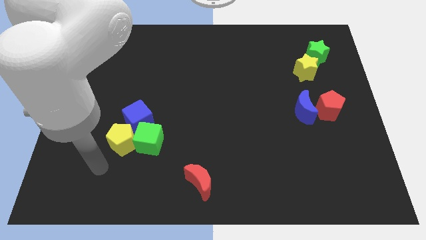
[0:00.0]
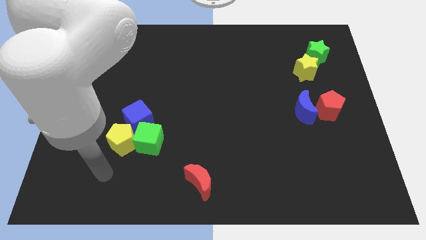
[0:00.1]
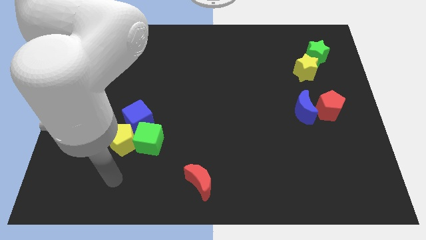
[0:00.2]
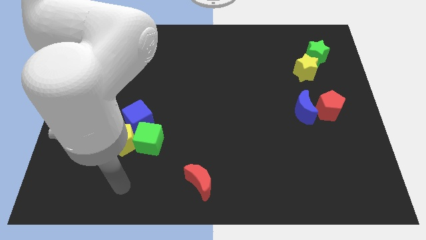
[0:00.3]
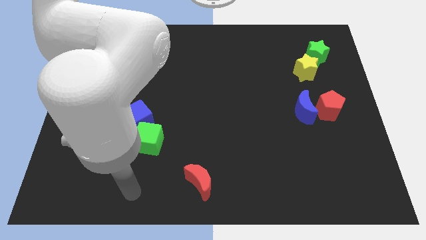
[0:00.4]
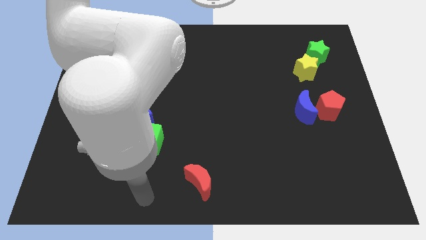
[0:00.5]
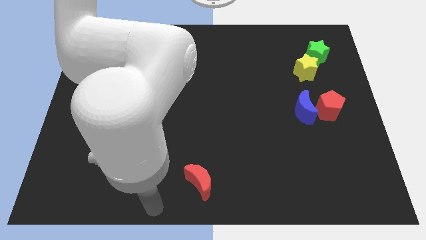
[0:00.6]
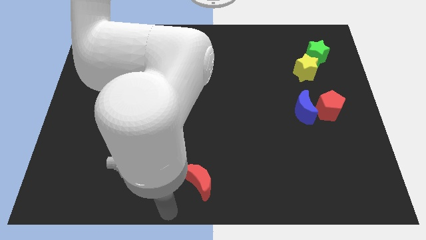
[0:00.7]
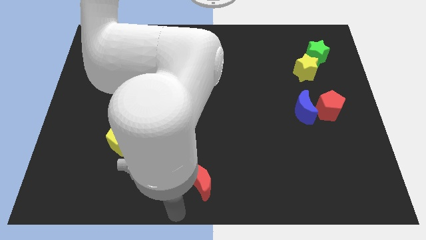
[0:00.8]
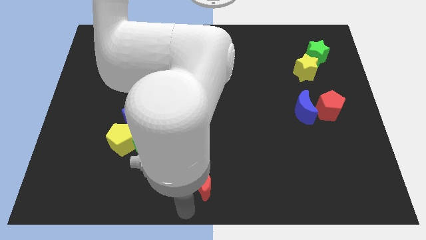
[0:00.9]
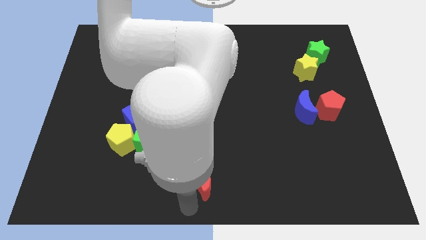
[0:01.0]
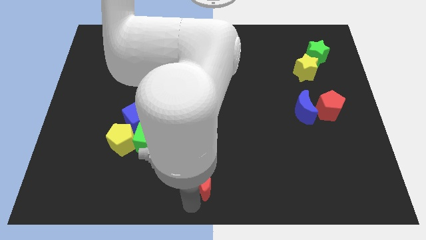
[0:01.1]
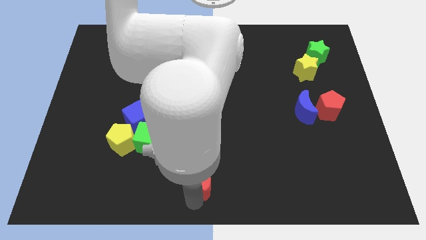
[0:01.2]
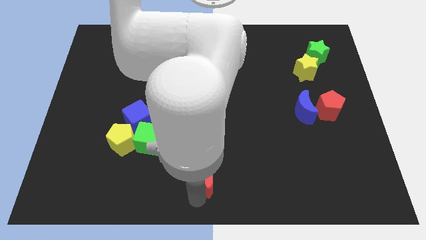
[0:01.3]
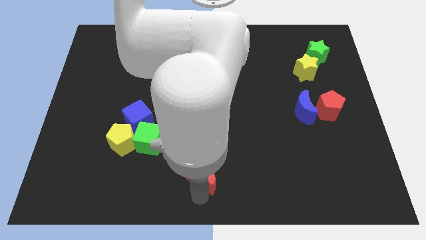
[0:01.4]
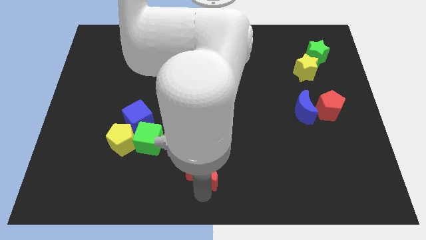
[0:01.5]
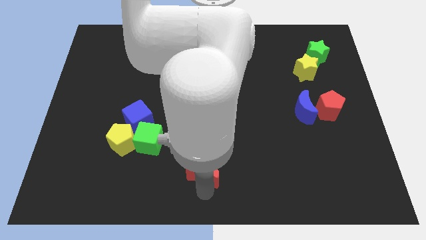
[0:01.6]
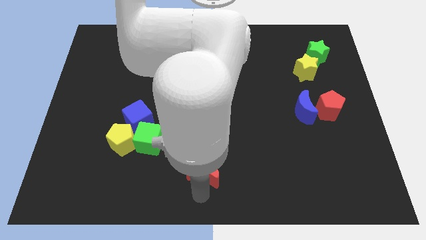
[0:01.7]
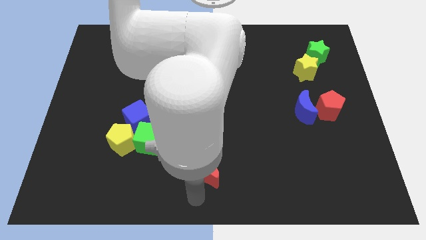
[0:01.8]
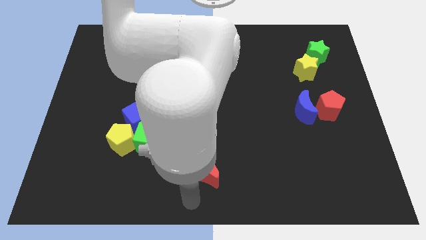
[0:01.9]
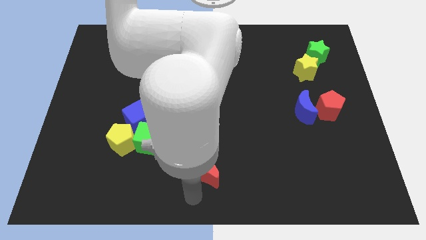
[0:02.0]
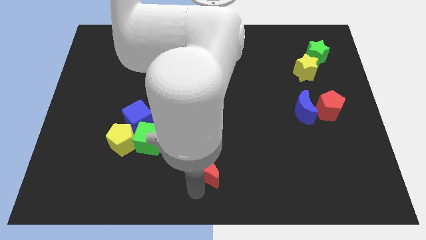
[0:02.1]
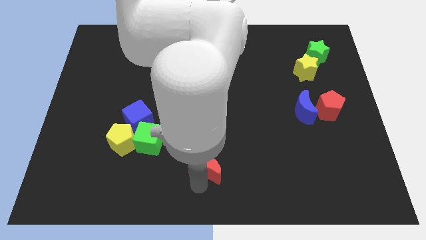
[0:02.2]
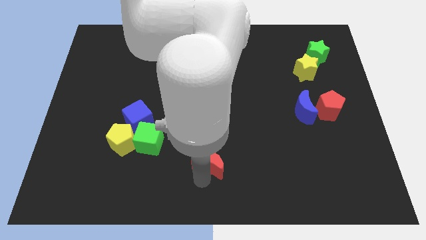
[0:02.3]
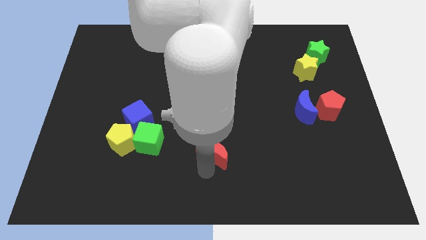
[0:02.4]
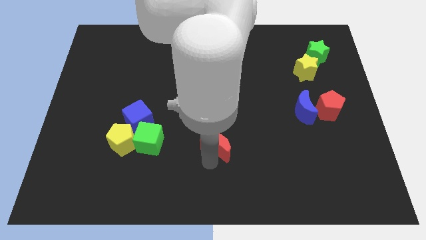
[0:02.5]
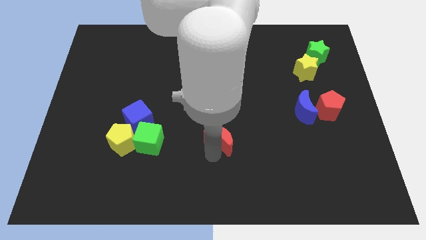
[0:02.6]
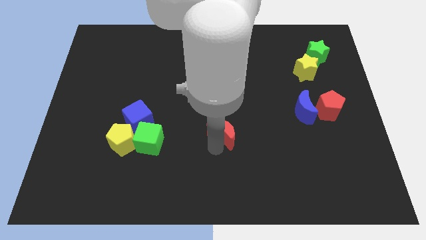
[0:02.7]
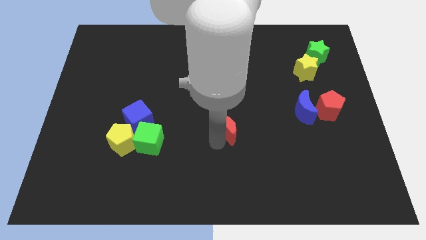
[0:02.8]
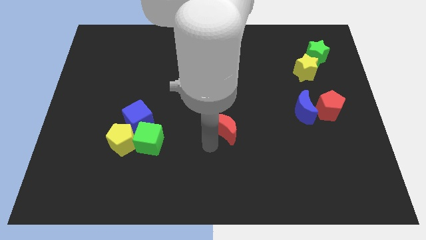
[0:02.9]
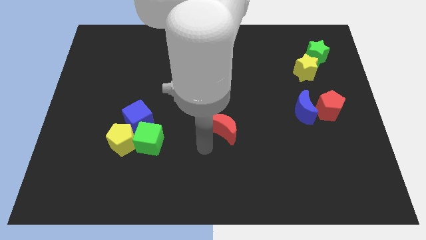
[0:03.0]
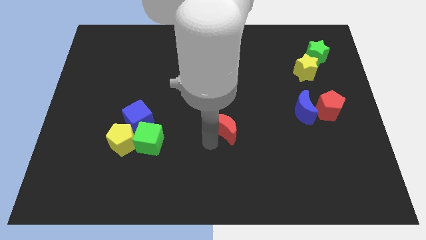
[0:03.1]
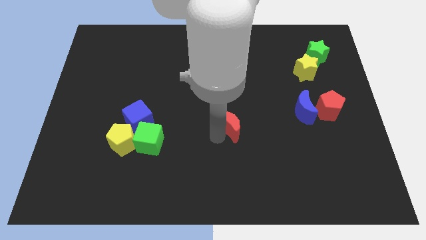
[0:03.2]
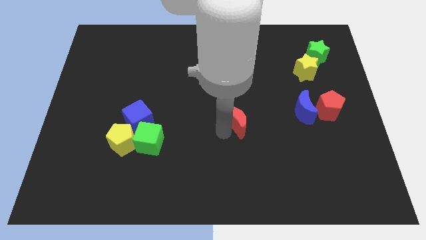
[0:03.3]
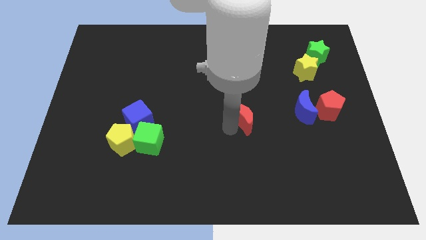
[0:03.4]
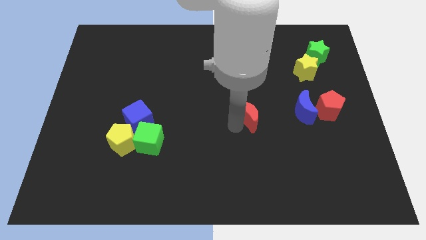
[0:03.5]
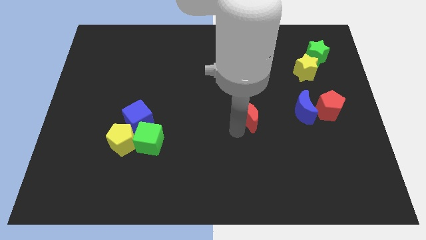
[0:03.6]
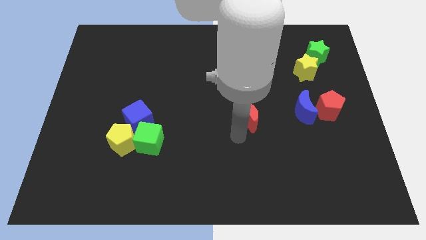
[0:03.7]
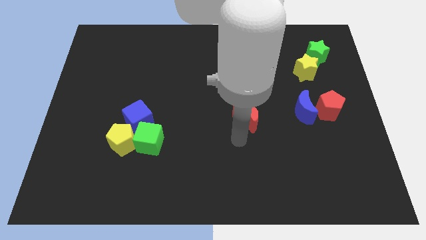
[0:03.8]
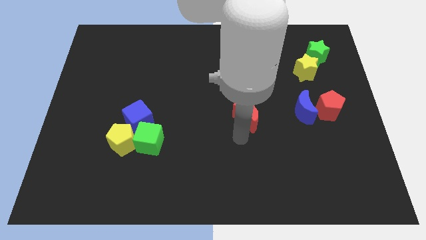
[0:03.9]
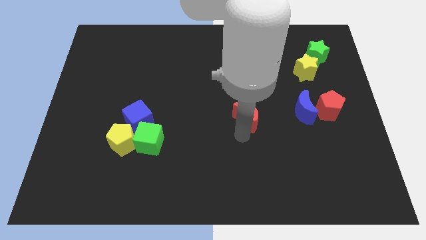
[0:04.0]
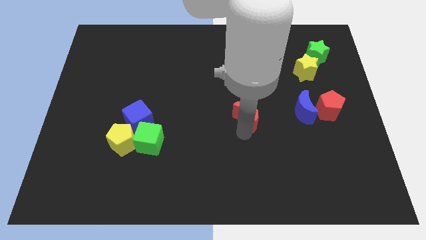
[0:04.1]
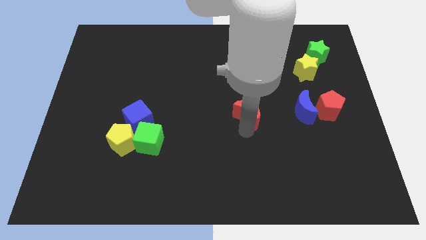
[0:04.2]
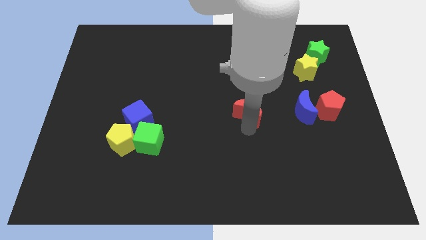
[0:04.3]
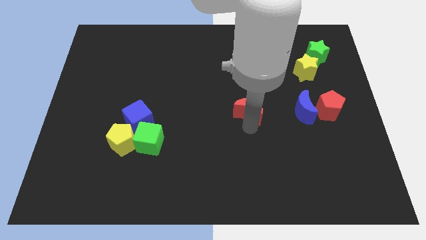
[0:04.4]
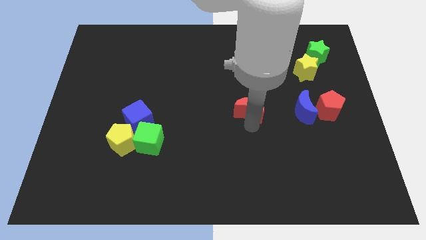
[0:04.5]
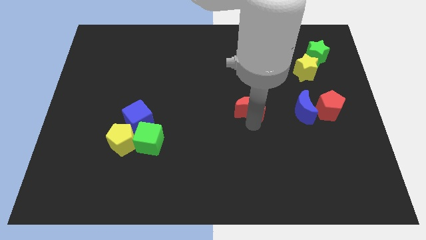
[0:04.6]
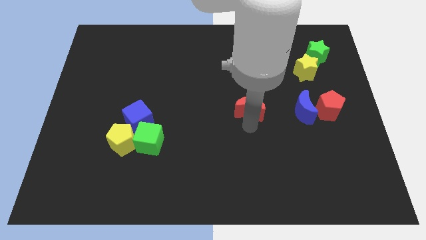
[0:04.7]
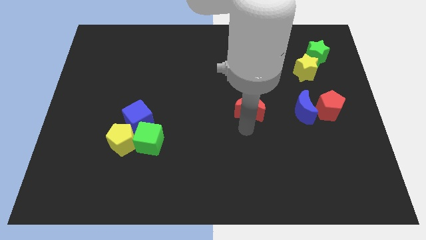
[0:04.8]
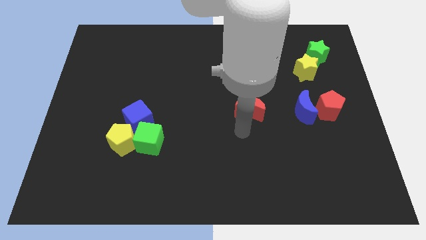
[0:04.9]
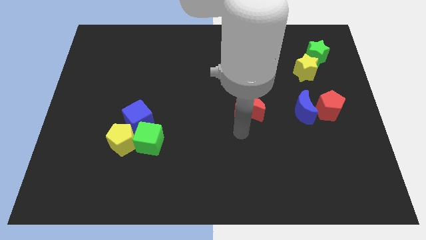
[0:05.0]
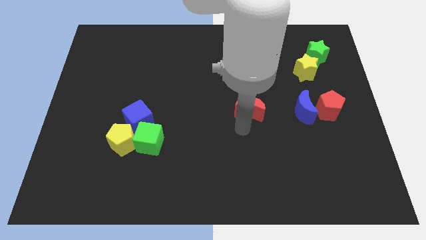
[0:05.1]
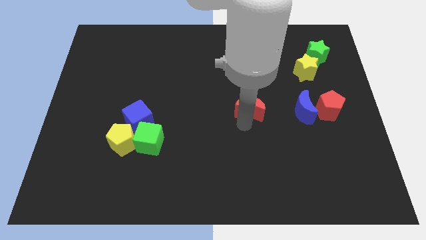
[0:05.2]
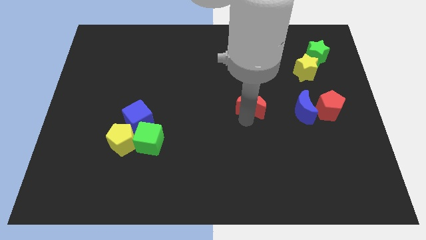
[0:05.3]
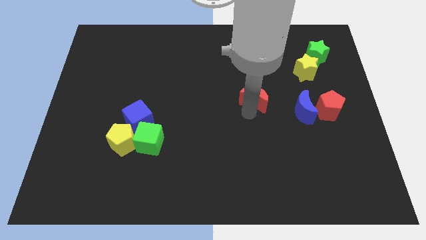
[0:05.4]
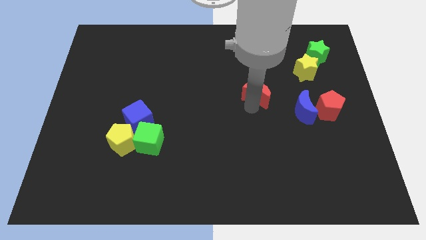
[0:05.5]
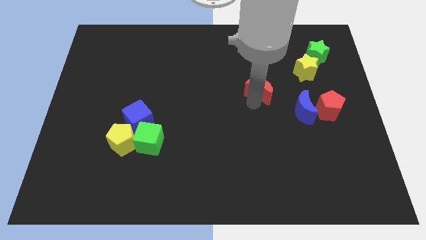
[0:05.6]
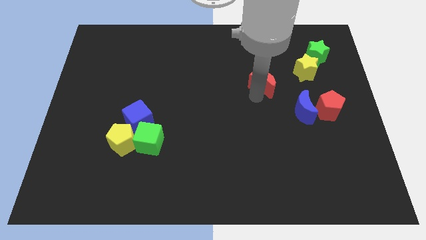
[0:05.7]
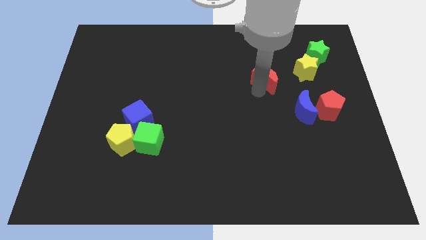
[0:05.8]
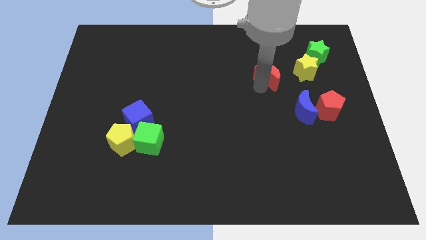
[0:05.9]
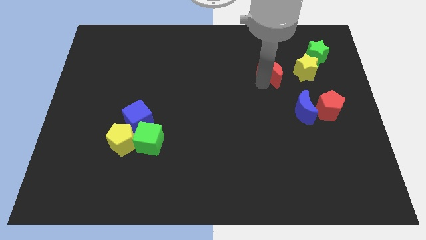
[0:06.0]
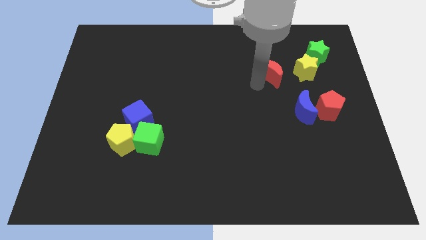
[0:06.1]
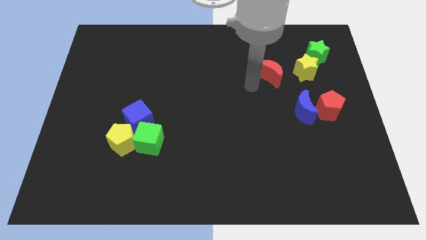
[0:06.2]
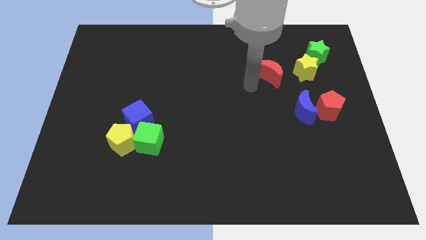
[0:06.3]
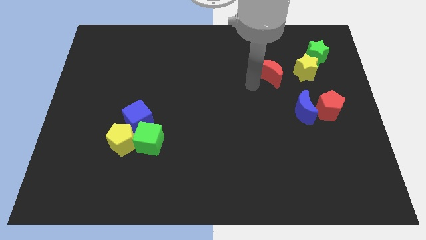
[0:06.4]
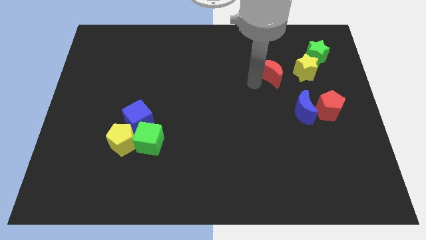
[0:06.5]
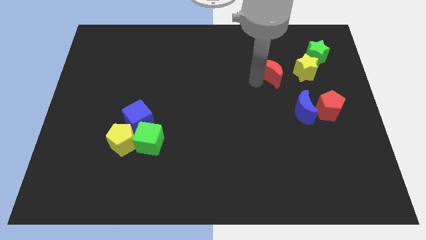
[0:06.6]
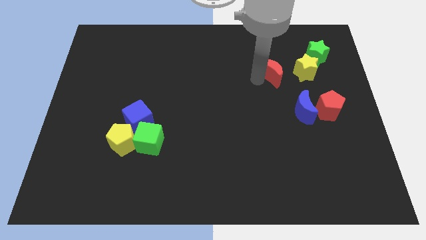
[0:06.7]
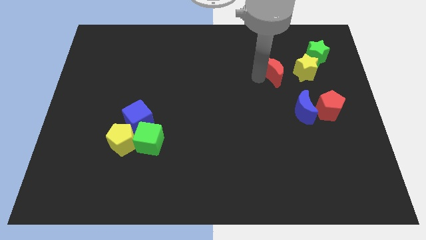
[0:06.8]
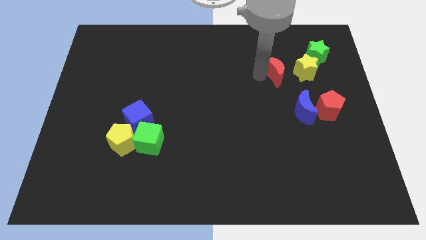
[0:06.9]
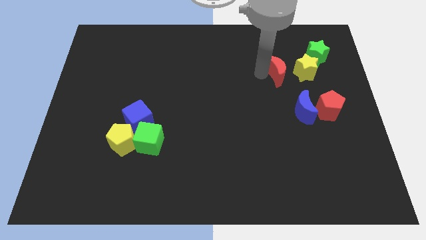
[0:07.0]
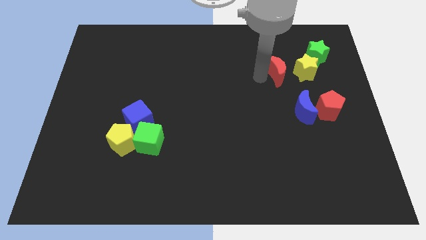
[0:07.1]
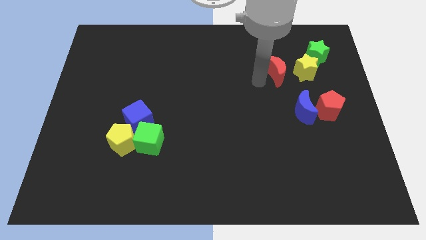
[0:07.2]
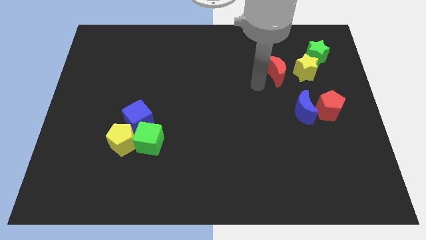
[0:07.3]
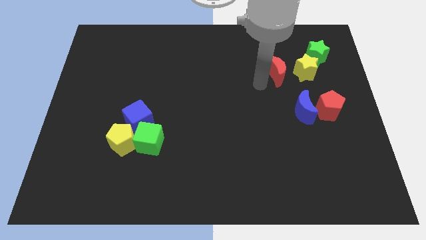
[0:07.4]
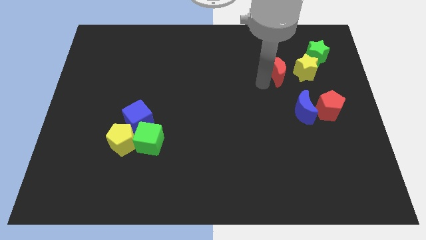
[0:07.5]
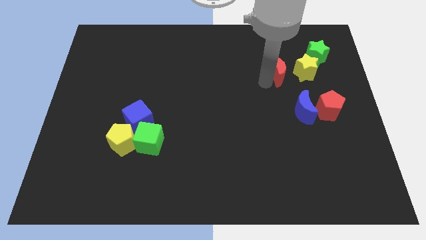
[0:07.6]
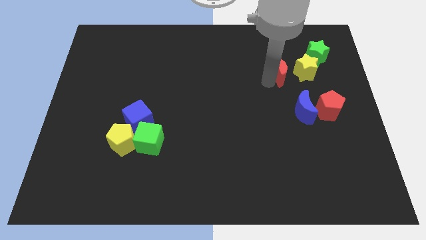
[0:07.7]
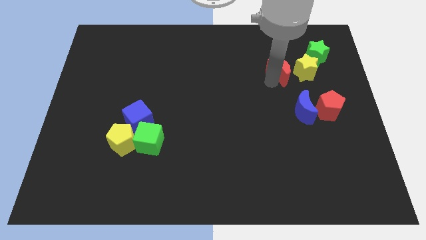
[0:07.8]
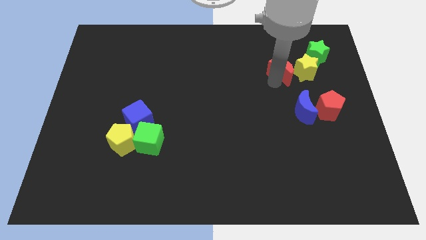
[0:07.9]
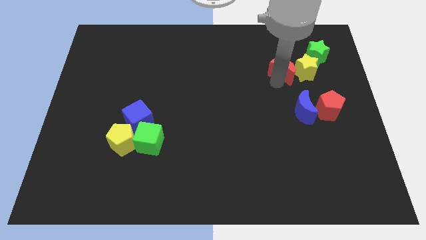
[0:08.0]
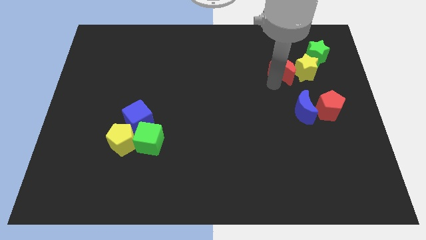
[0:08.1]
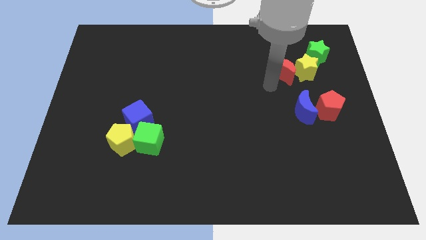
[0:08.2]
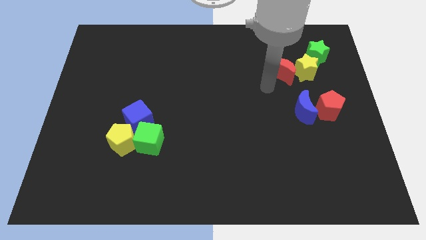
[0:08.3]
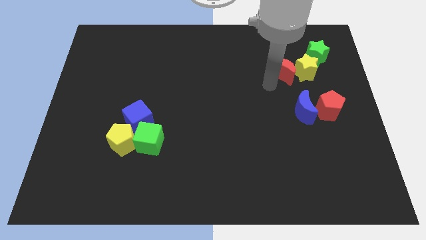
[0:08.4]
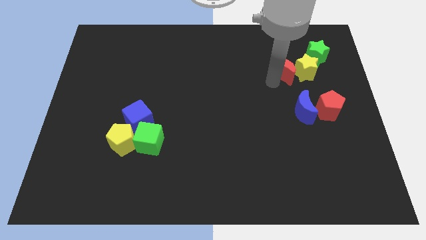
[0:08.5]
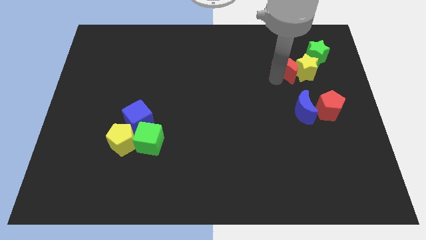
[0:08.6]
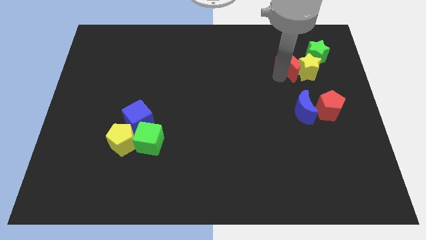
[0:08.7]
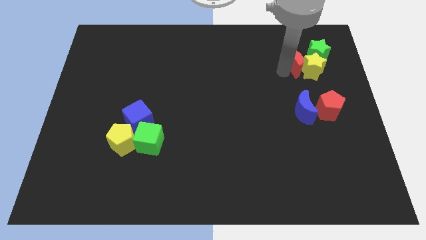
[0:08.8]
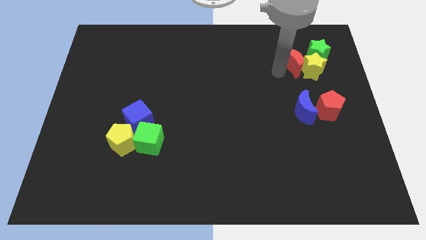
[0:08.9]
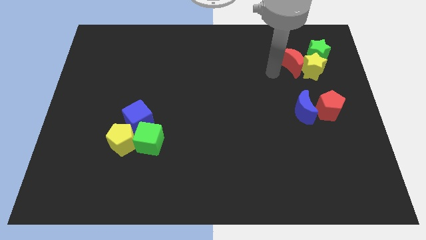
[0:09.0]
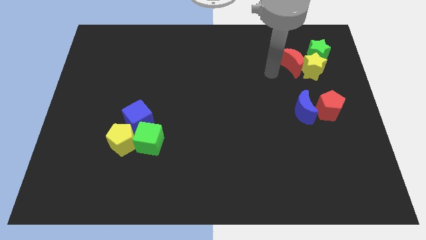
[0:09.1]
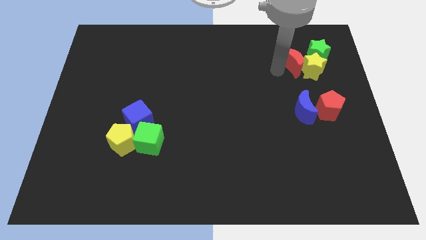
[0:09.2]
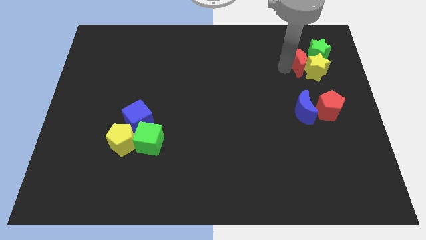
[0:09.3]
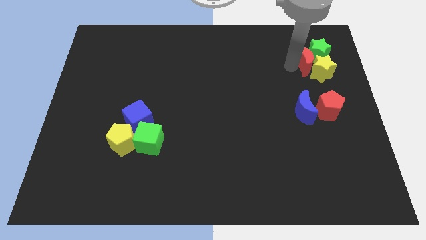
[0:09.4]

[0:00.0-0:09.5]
push the red moon to the green star
